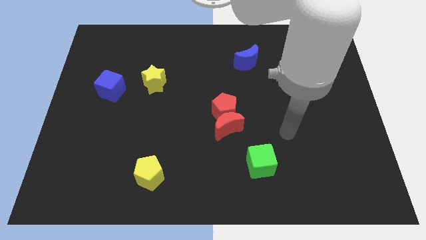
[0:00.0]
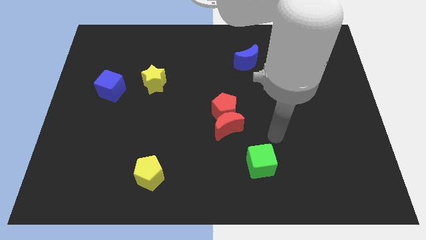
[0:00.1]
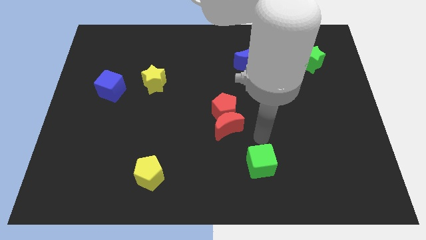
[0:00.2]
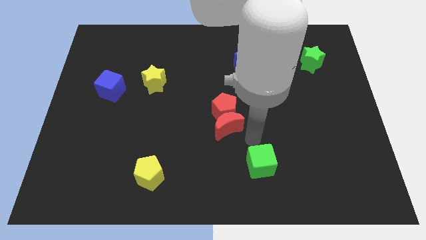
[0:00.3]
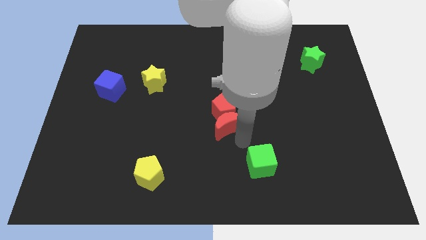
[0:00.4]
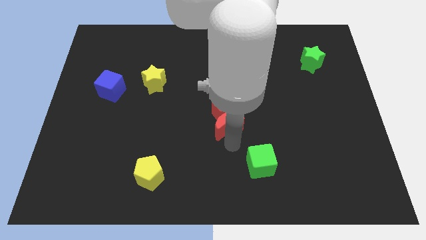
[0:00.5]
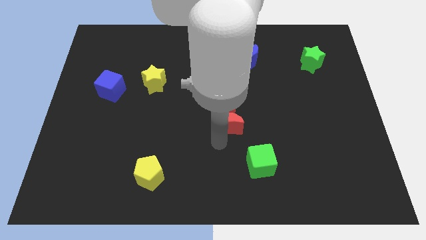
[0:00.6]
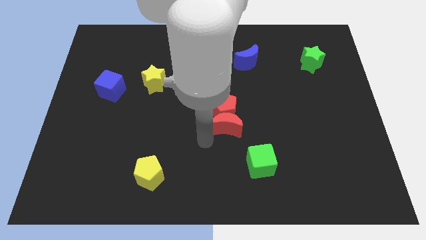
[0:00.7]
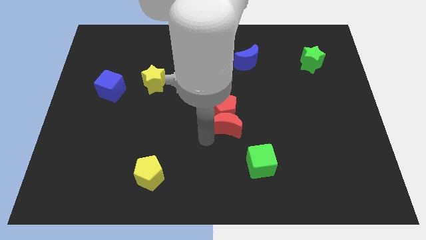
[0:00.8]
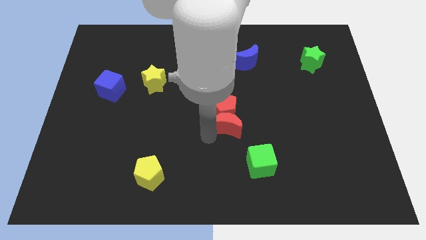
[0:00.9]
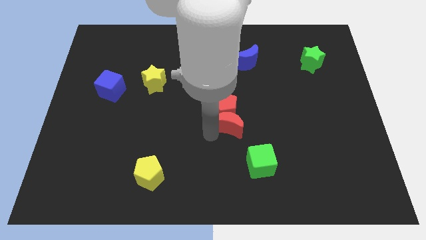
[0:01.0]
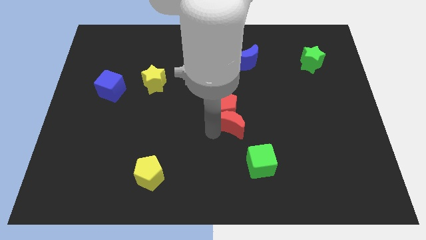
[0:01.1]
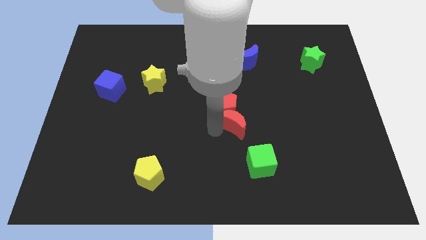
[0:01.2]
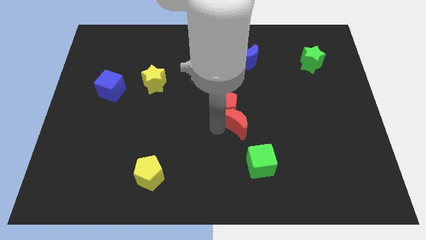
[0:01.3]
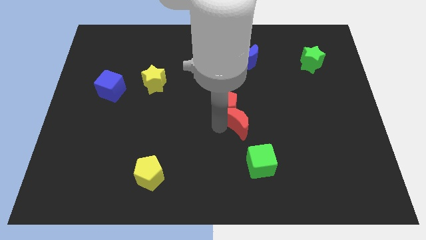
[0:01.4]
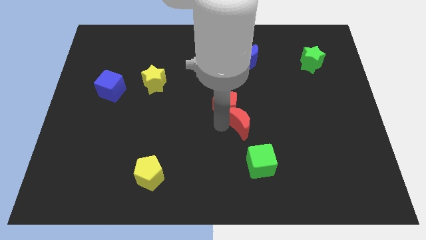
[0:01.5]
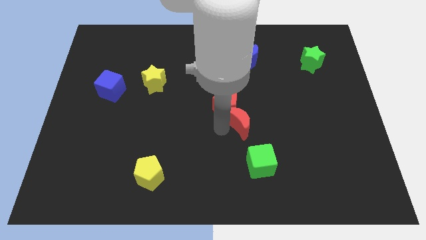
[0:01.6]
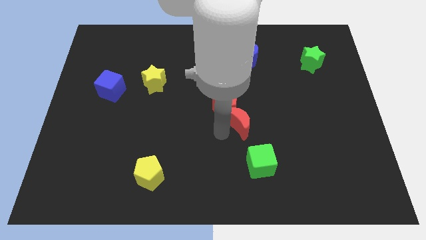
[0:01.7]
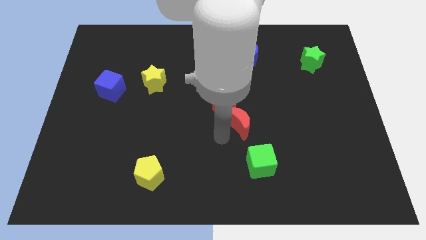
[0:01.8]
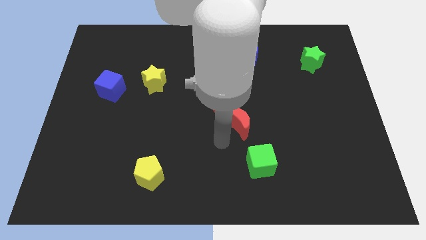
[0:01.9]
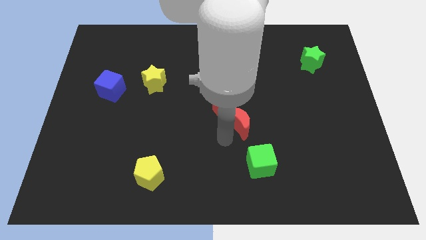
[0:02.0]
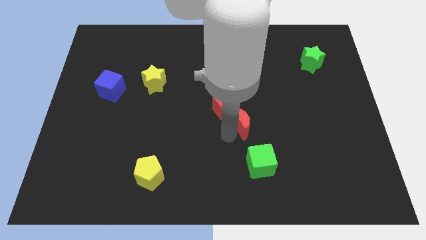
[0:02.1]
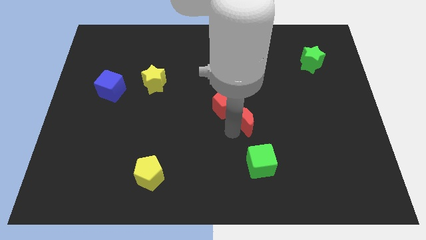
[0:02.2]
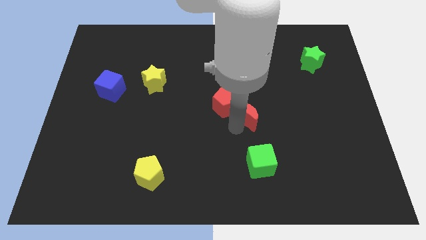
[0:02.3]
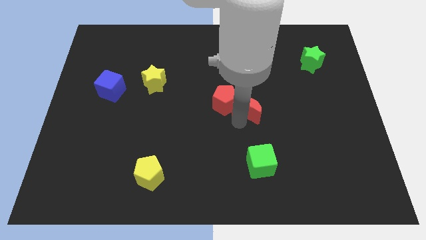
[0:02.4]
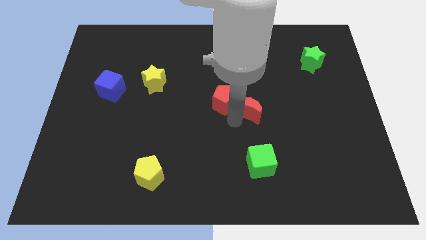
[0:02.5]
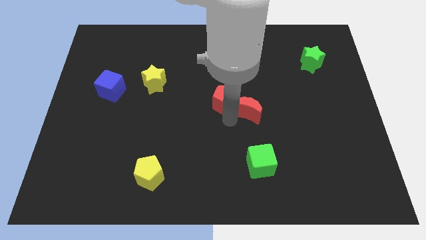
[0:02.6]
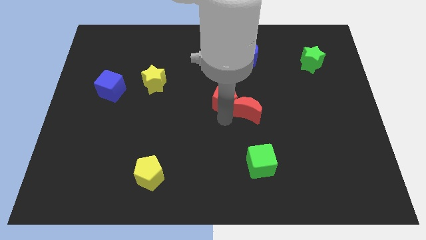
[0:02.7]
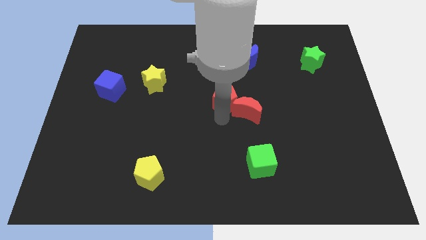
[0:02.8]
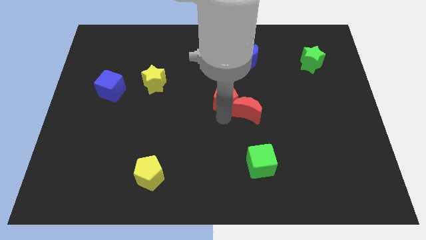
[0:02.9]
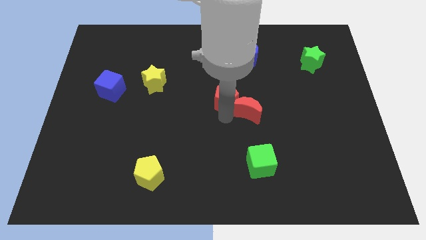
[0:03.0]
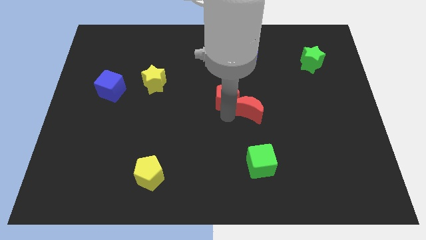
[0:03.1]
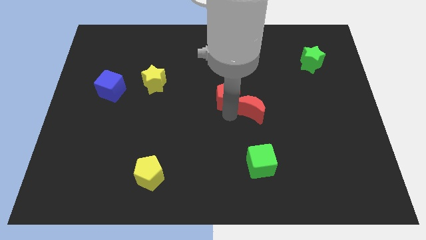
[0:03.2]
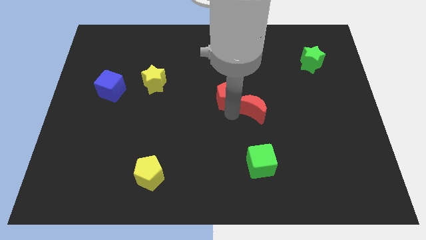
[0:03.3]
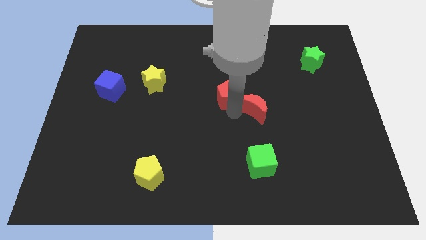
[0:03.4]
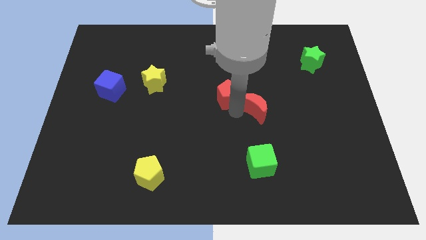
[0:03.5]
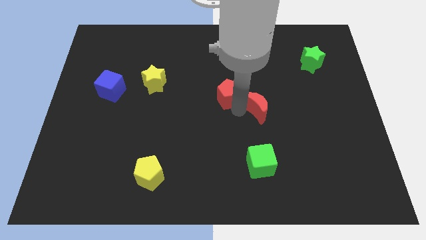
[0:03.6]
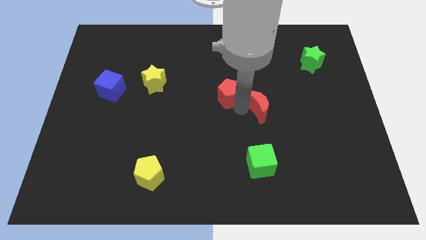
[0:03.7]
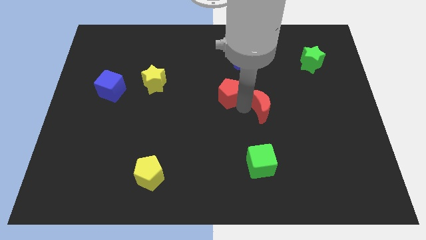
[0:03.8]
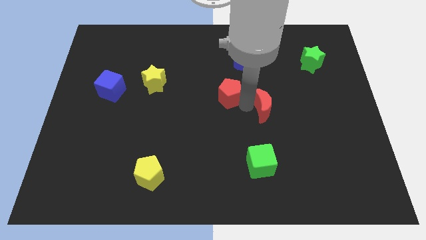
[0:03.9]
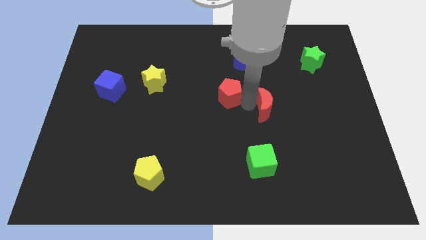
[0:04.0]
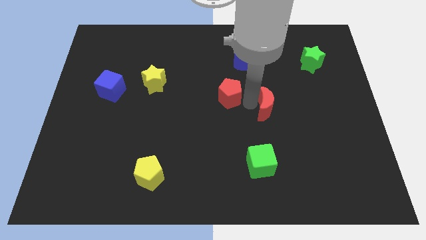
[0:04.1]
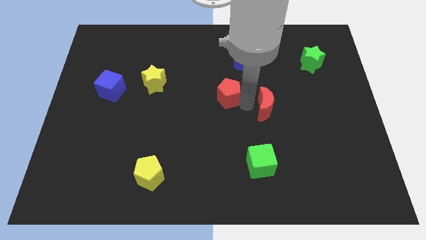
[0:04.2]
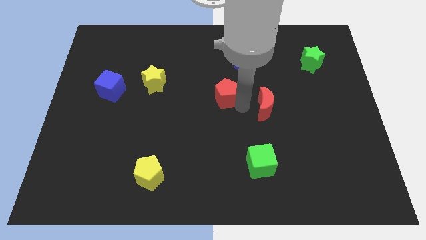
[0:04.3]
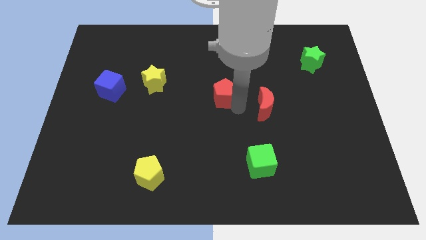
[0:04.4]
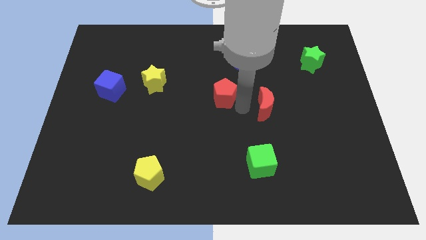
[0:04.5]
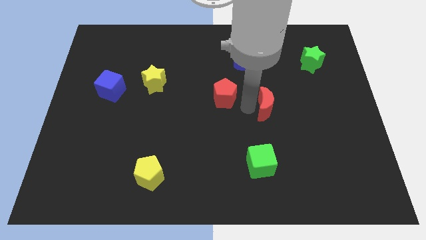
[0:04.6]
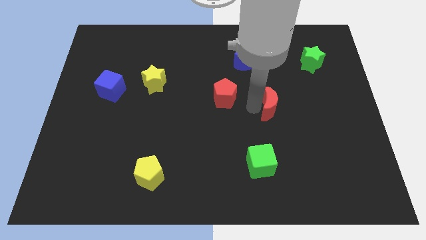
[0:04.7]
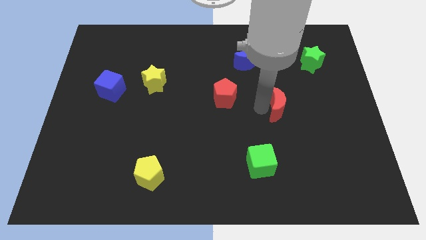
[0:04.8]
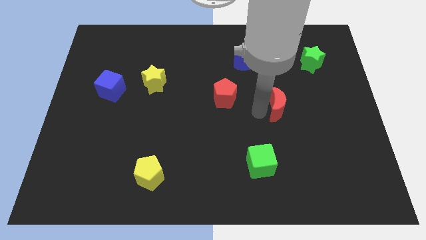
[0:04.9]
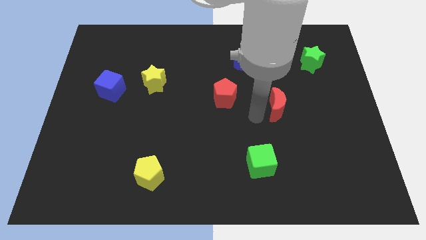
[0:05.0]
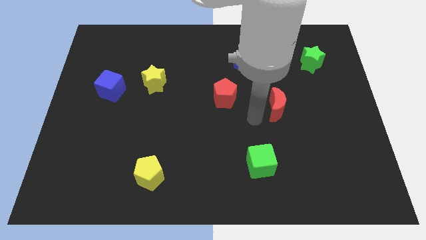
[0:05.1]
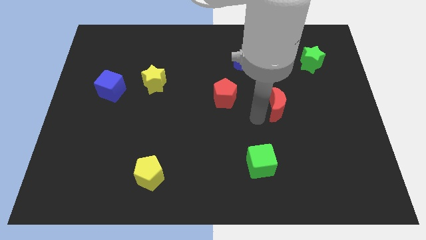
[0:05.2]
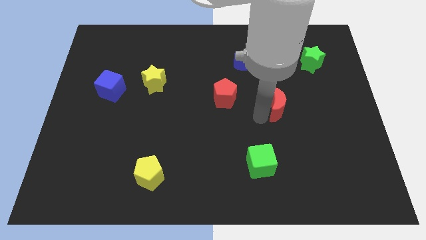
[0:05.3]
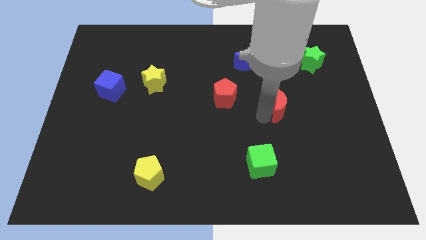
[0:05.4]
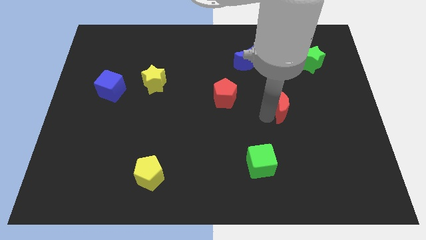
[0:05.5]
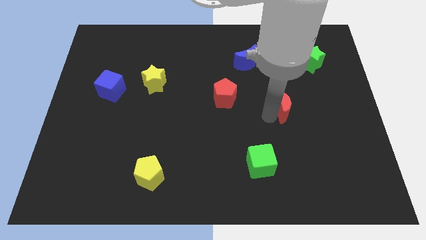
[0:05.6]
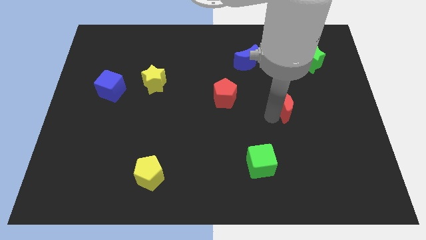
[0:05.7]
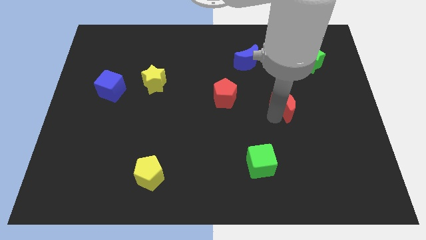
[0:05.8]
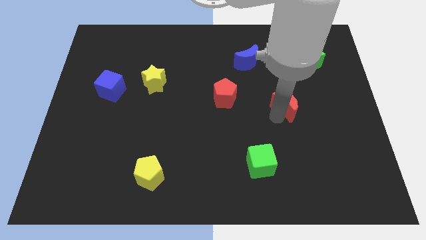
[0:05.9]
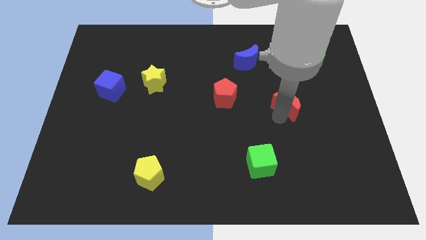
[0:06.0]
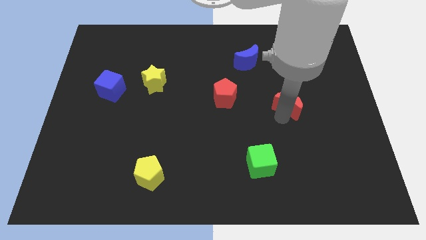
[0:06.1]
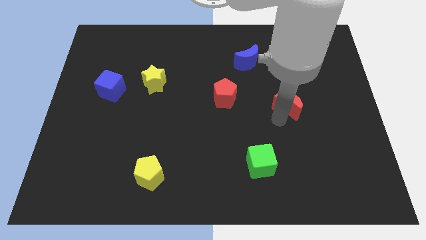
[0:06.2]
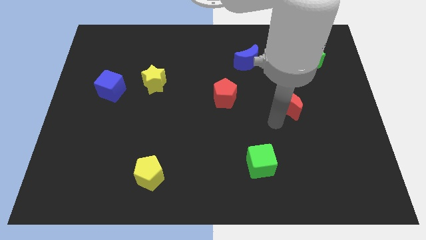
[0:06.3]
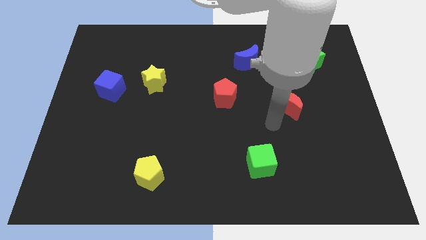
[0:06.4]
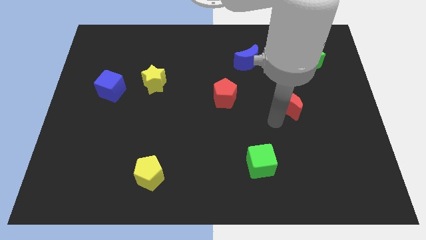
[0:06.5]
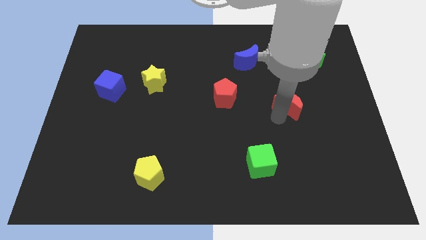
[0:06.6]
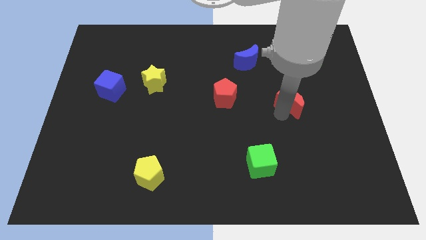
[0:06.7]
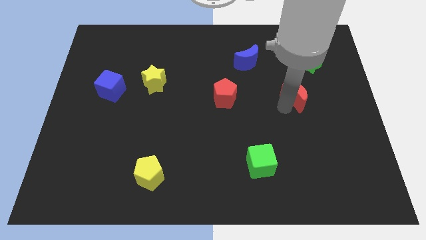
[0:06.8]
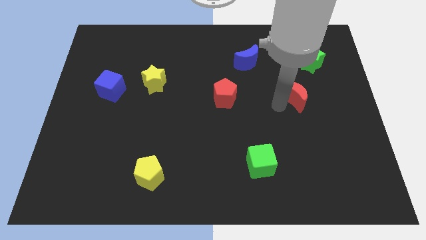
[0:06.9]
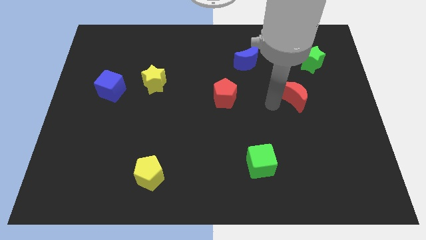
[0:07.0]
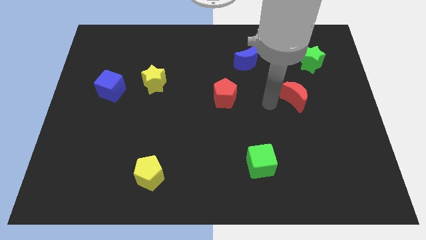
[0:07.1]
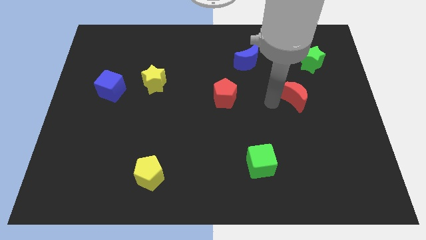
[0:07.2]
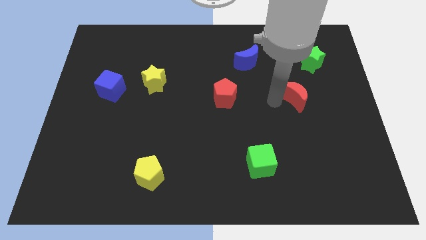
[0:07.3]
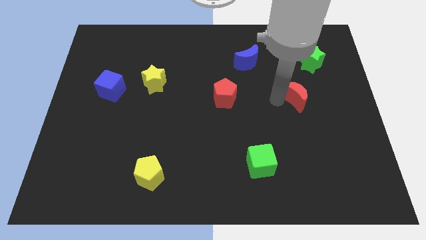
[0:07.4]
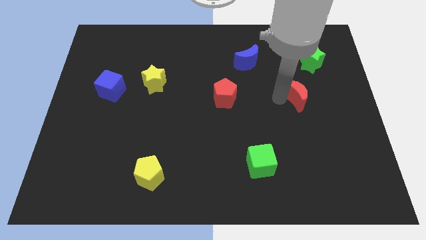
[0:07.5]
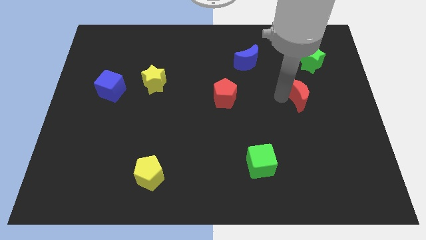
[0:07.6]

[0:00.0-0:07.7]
move the red moon to the bottom side of the green star
